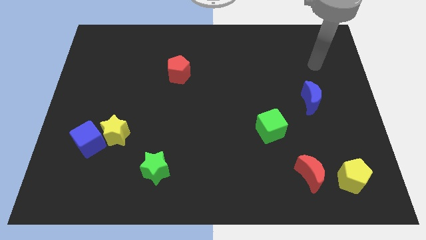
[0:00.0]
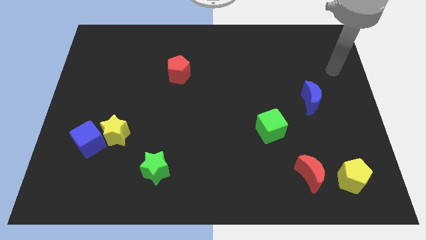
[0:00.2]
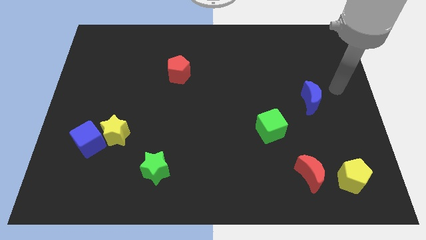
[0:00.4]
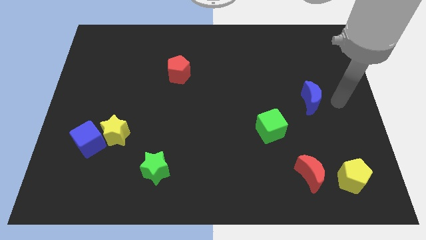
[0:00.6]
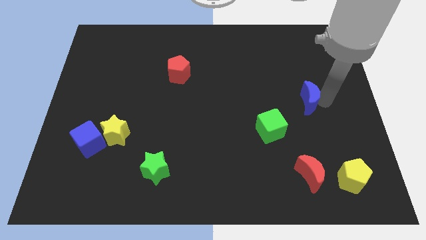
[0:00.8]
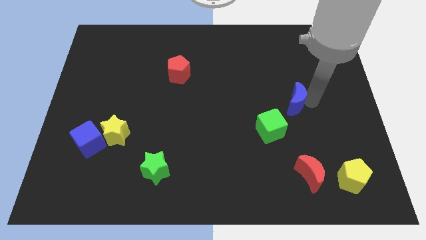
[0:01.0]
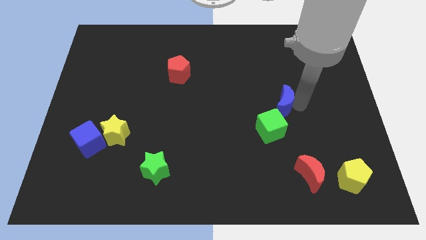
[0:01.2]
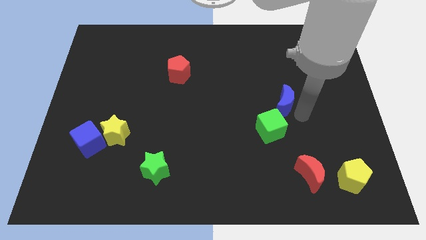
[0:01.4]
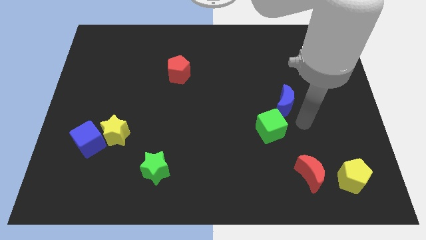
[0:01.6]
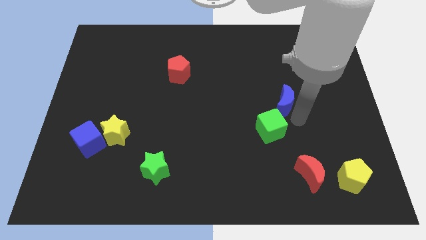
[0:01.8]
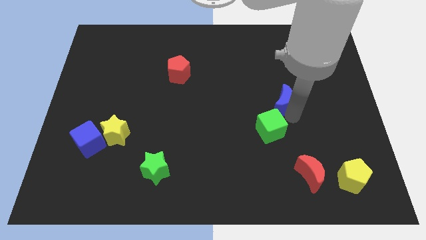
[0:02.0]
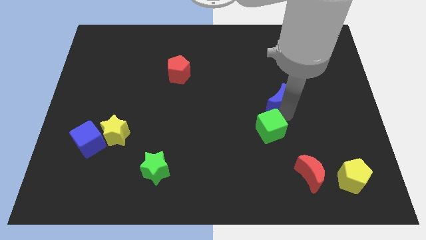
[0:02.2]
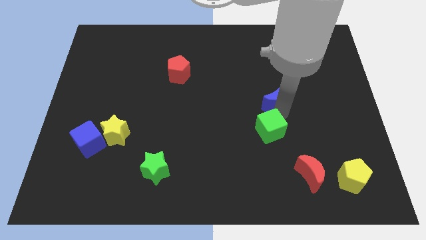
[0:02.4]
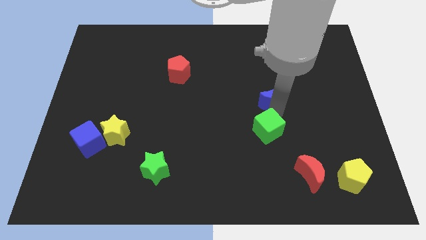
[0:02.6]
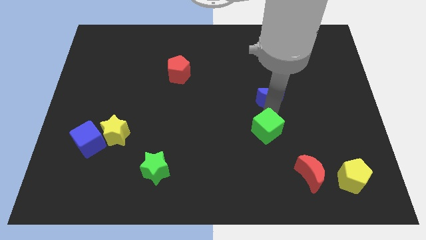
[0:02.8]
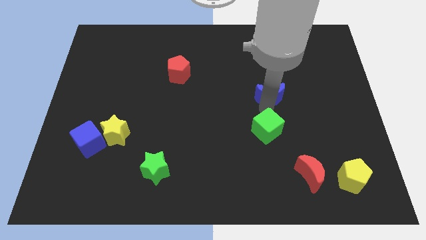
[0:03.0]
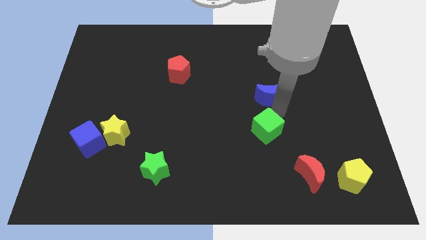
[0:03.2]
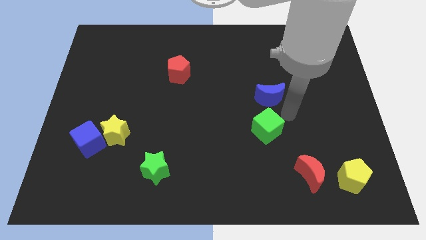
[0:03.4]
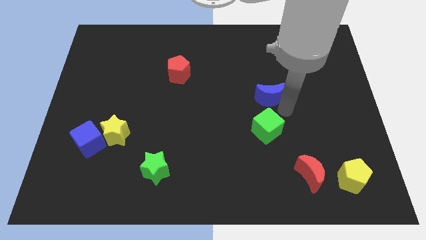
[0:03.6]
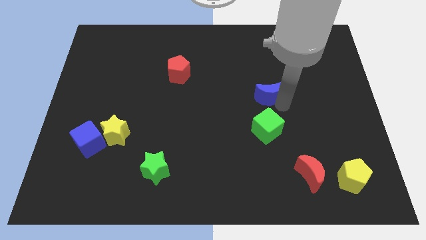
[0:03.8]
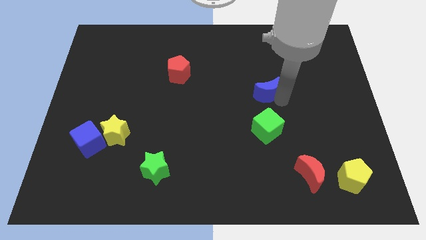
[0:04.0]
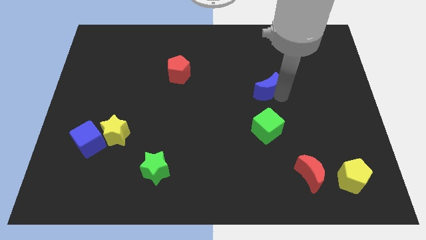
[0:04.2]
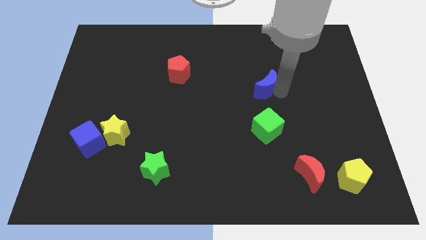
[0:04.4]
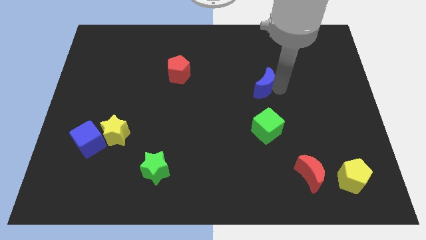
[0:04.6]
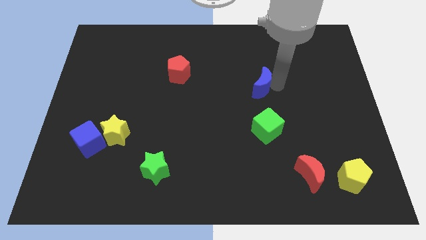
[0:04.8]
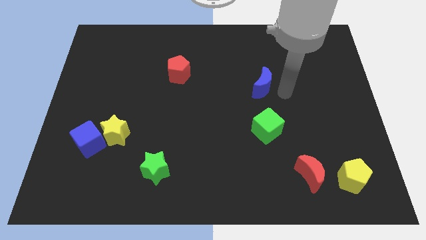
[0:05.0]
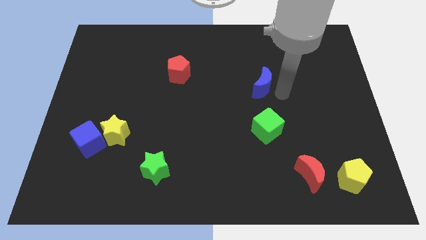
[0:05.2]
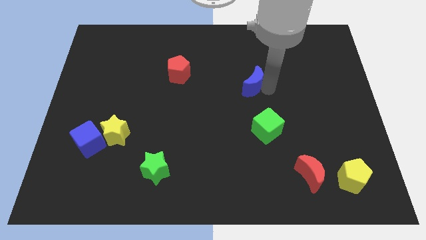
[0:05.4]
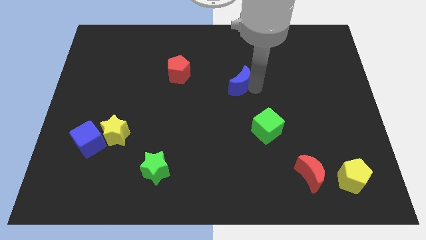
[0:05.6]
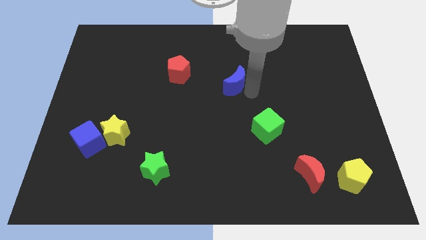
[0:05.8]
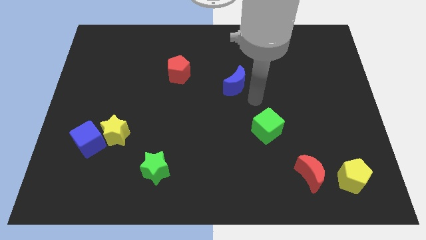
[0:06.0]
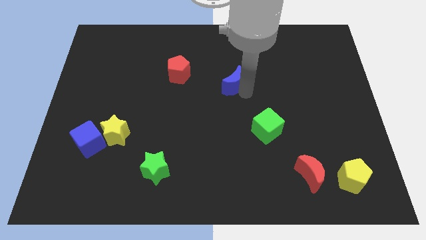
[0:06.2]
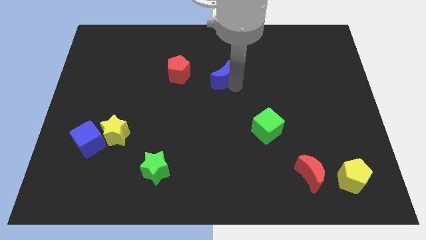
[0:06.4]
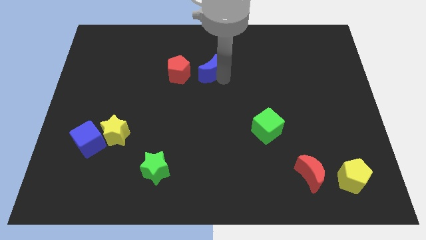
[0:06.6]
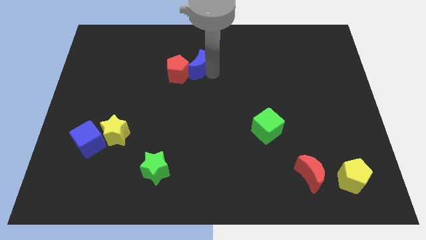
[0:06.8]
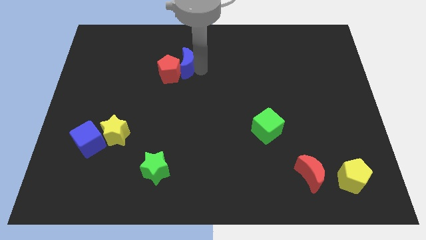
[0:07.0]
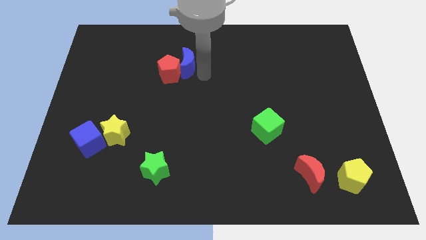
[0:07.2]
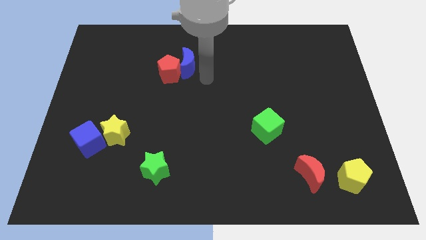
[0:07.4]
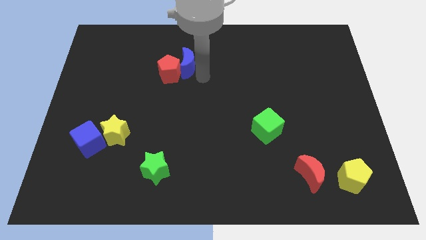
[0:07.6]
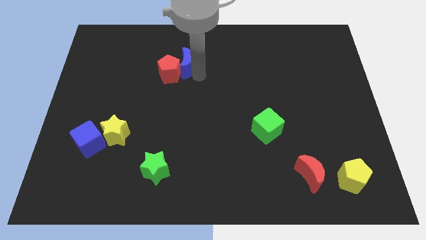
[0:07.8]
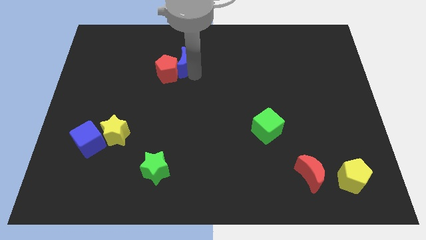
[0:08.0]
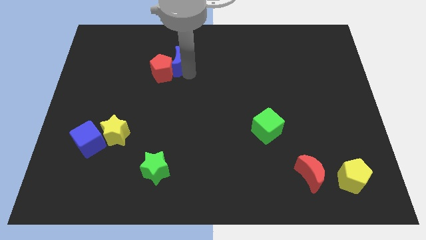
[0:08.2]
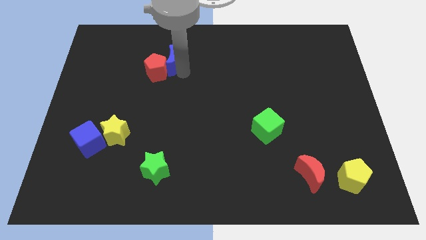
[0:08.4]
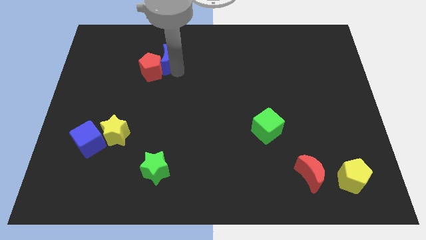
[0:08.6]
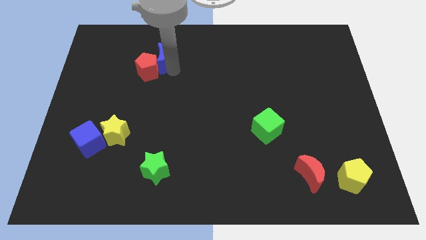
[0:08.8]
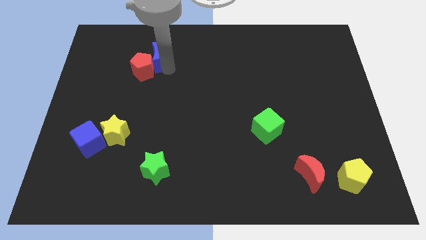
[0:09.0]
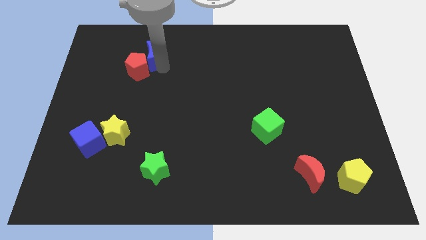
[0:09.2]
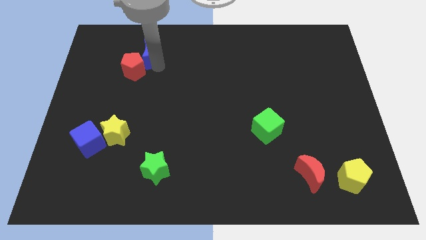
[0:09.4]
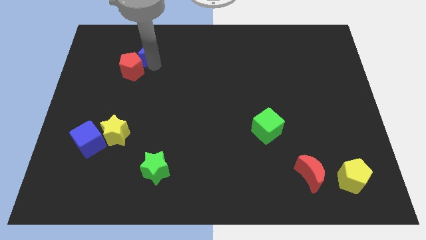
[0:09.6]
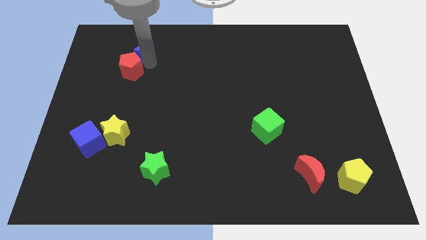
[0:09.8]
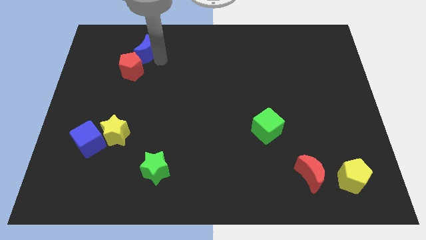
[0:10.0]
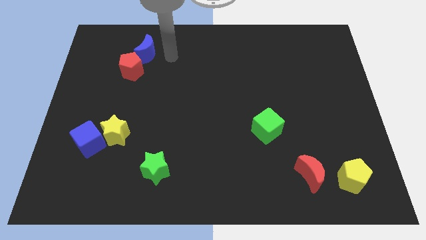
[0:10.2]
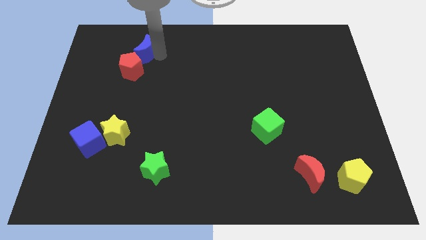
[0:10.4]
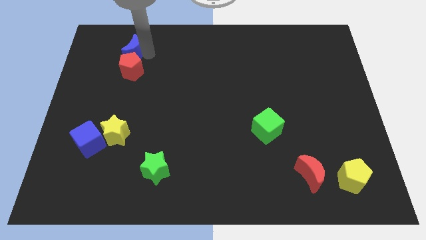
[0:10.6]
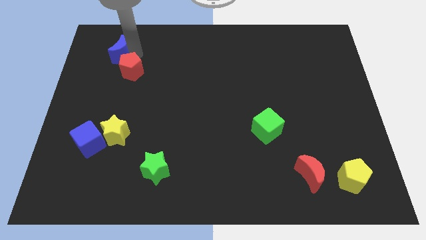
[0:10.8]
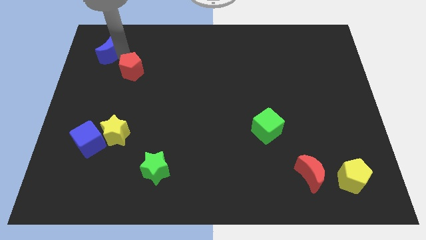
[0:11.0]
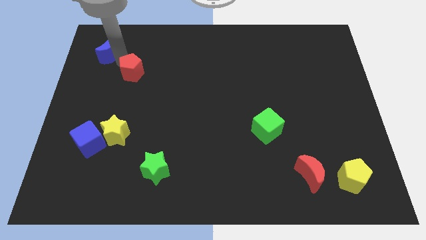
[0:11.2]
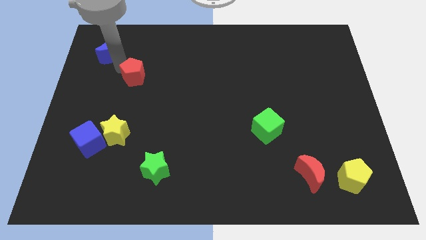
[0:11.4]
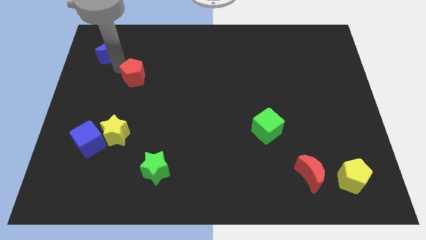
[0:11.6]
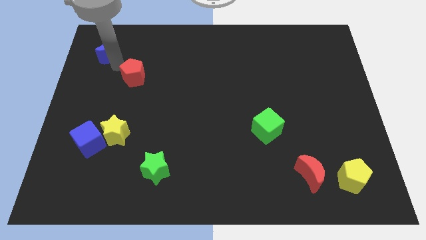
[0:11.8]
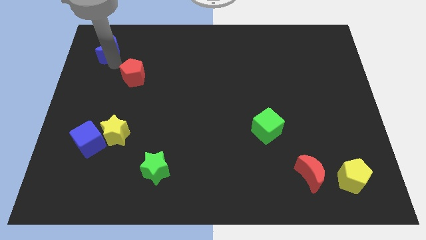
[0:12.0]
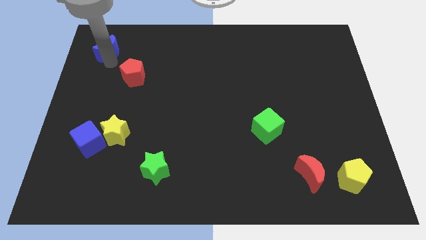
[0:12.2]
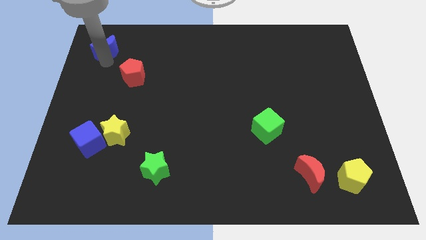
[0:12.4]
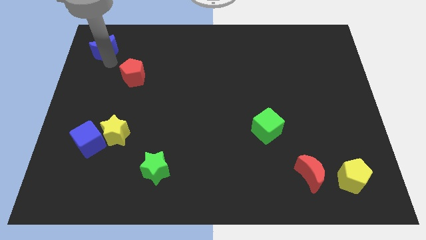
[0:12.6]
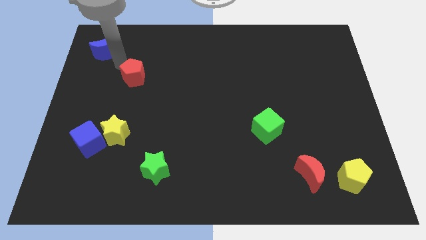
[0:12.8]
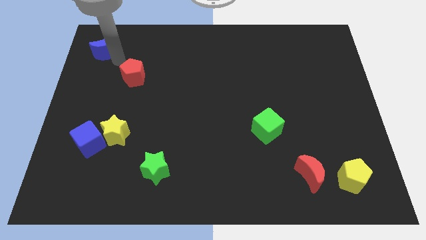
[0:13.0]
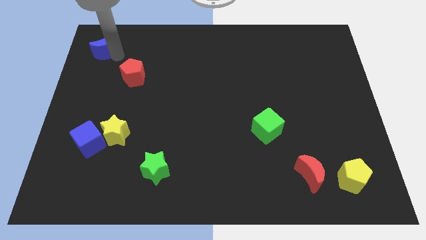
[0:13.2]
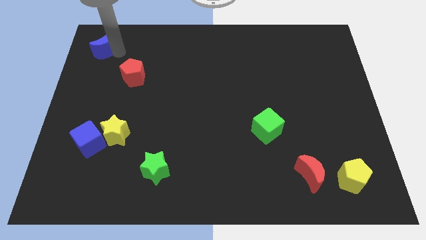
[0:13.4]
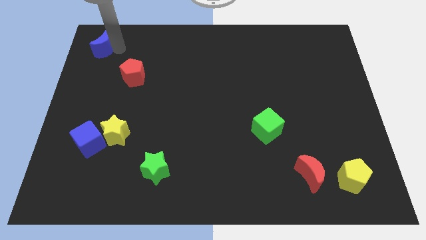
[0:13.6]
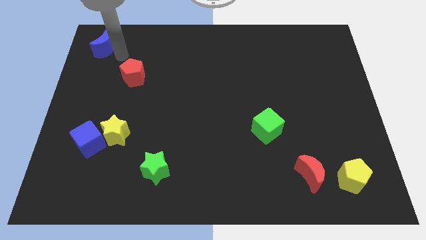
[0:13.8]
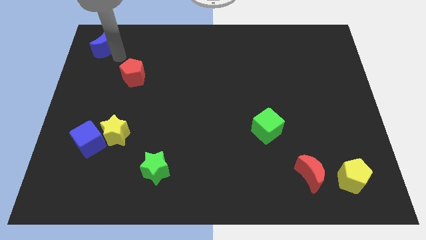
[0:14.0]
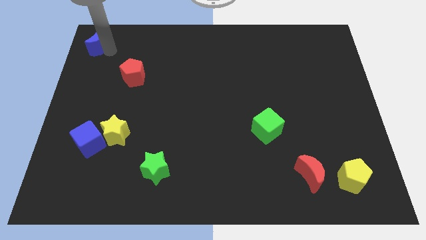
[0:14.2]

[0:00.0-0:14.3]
move the blue moon to the top left
